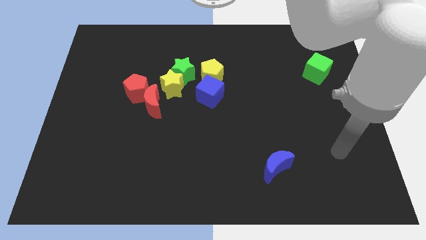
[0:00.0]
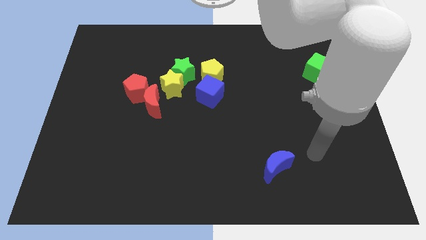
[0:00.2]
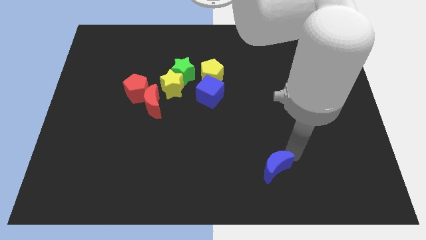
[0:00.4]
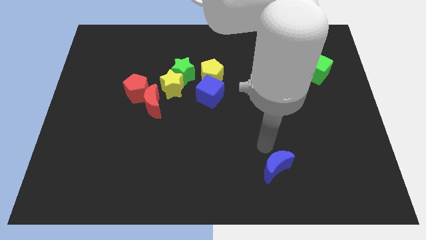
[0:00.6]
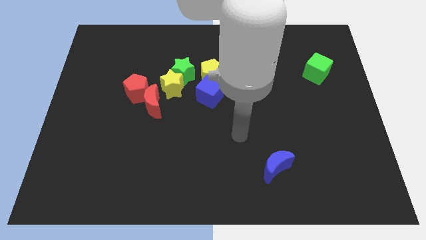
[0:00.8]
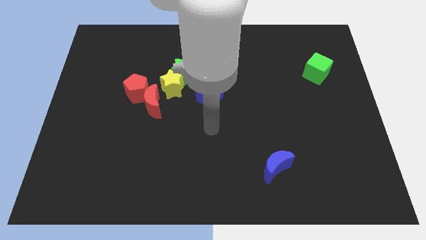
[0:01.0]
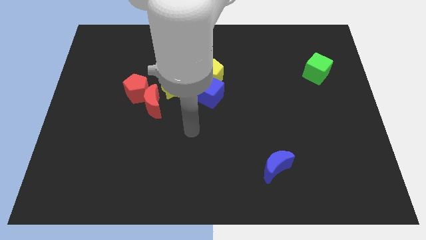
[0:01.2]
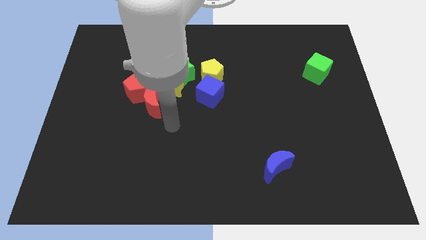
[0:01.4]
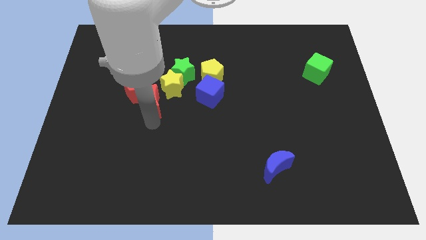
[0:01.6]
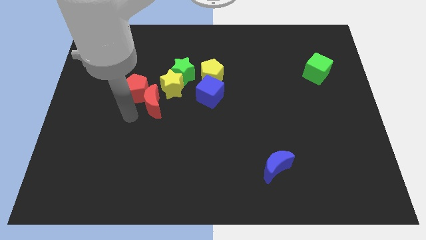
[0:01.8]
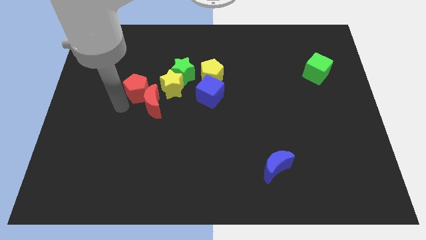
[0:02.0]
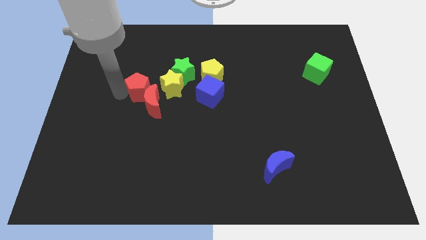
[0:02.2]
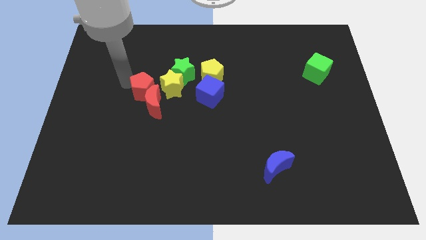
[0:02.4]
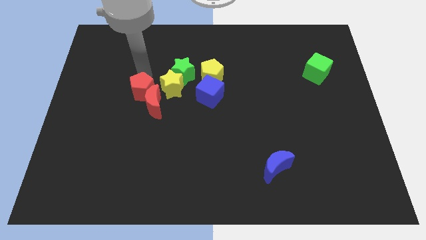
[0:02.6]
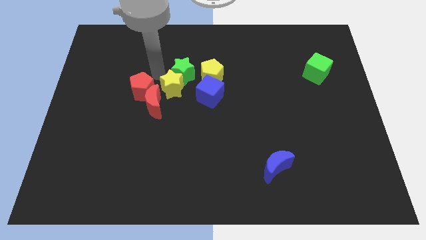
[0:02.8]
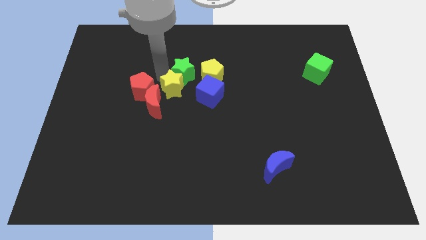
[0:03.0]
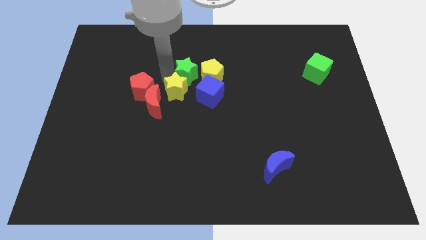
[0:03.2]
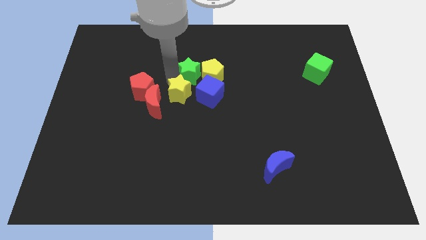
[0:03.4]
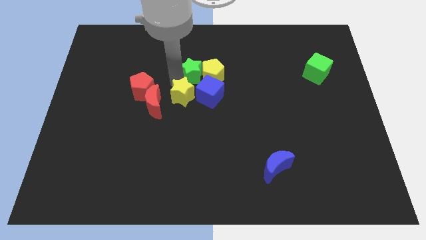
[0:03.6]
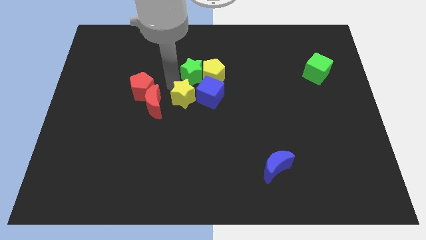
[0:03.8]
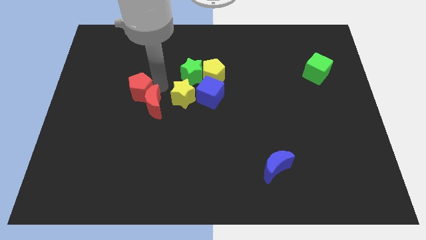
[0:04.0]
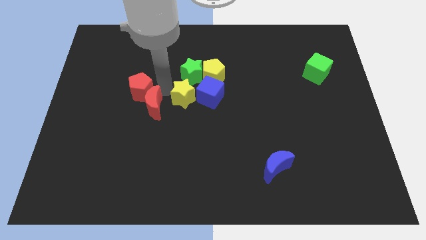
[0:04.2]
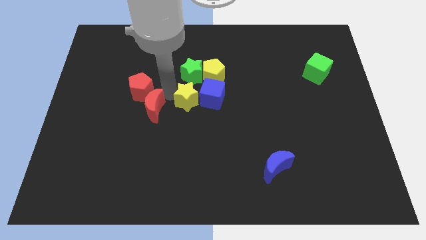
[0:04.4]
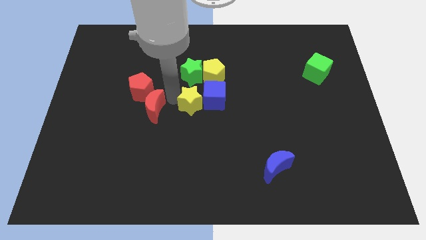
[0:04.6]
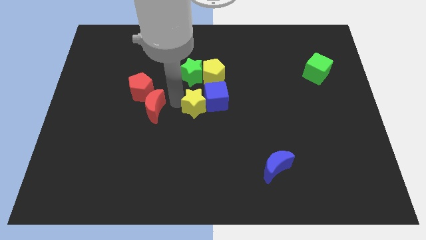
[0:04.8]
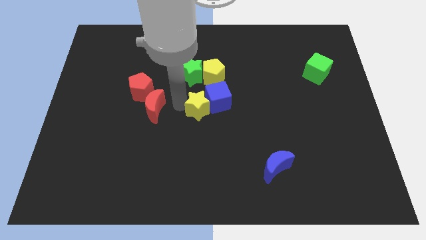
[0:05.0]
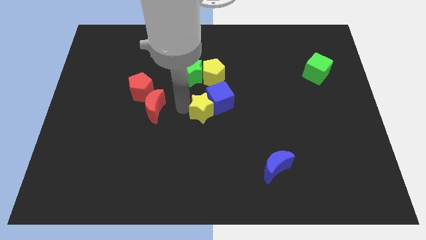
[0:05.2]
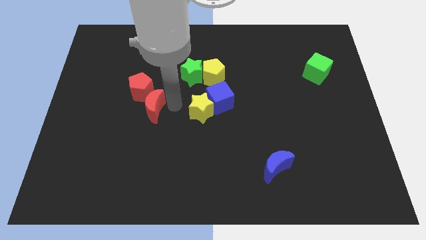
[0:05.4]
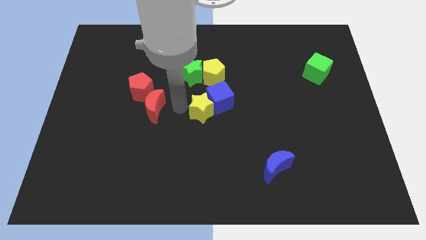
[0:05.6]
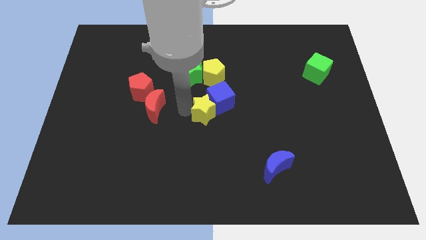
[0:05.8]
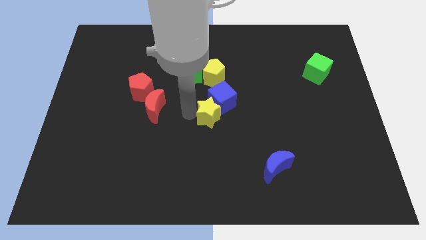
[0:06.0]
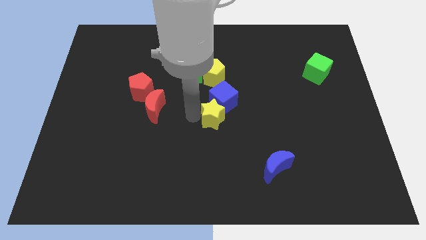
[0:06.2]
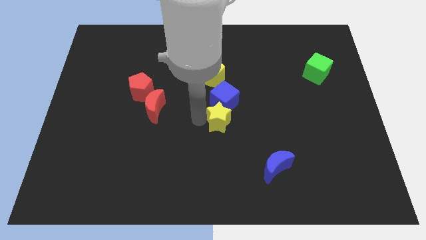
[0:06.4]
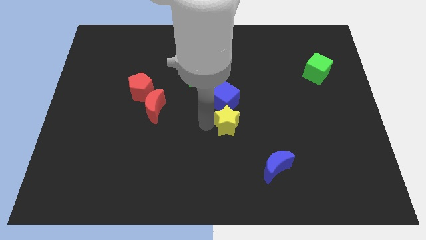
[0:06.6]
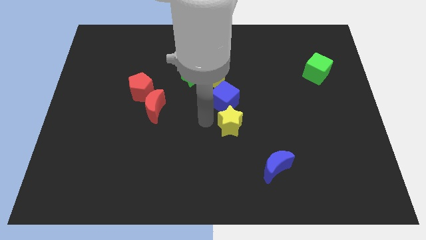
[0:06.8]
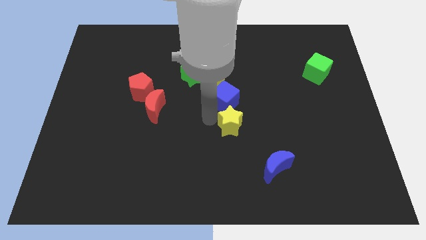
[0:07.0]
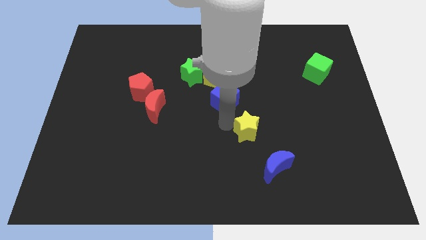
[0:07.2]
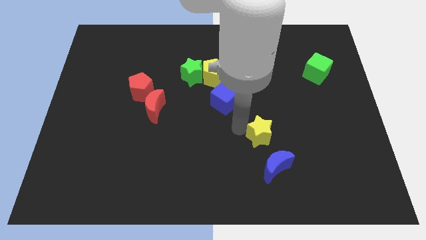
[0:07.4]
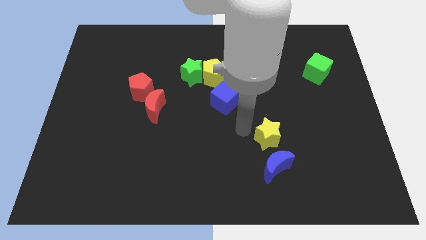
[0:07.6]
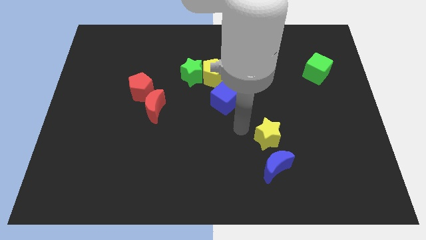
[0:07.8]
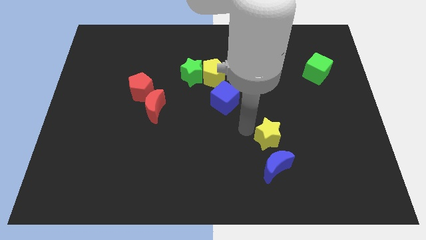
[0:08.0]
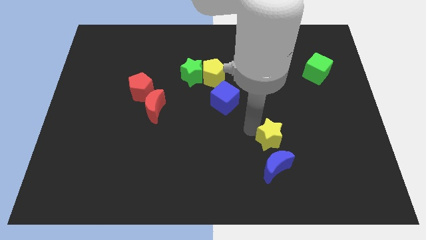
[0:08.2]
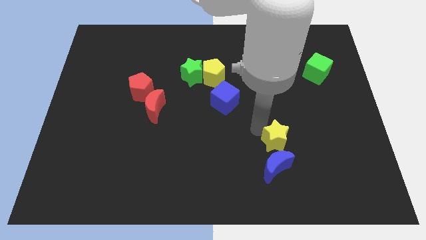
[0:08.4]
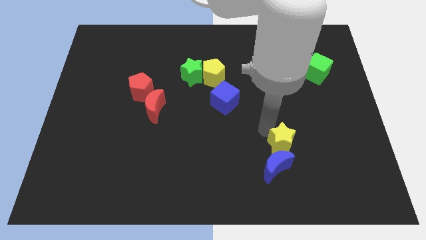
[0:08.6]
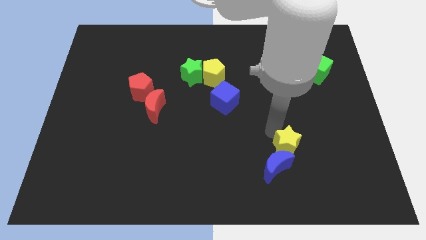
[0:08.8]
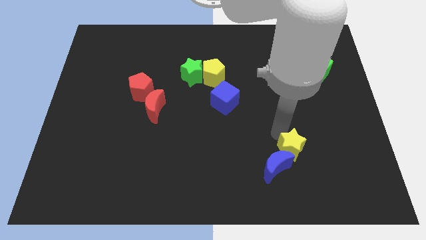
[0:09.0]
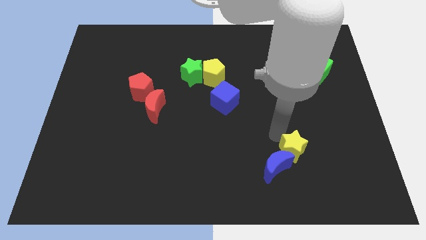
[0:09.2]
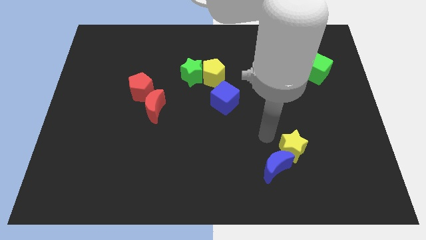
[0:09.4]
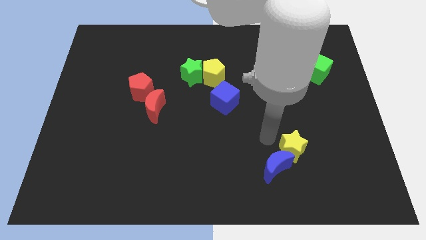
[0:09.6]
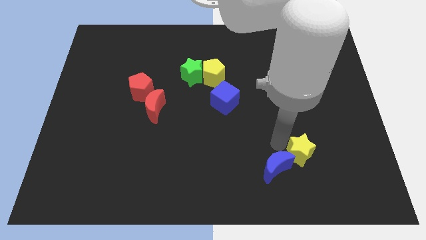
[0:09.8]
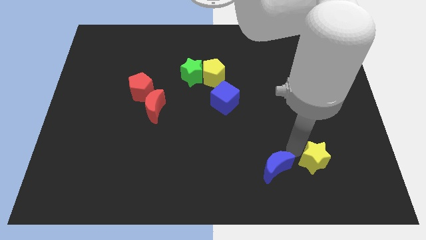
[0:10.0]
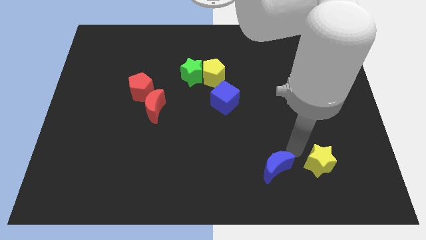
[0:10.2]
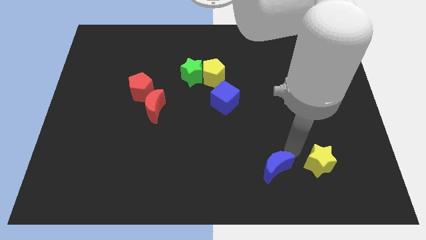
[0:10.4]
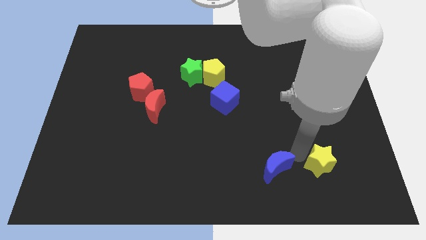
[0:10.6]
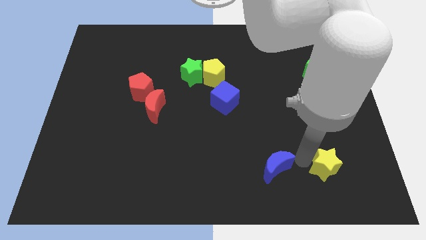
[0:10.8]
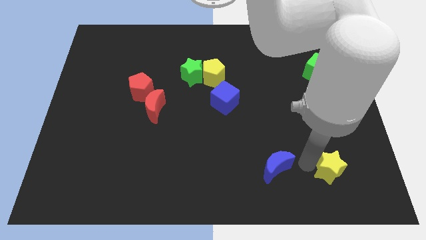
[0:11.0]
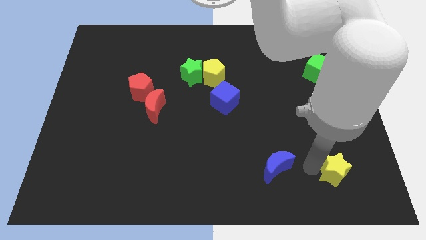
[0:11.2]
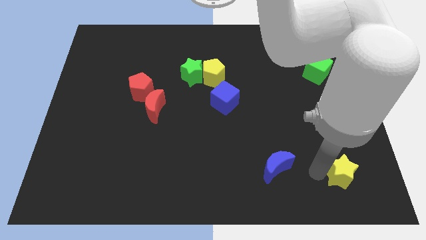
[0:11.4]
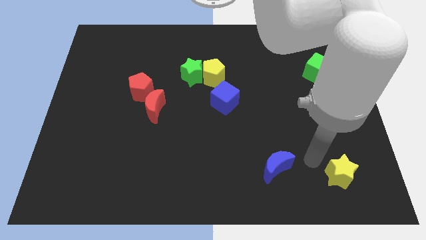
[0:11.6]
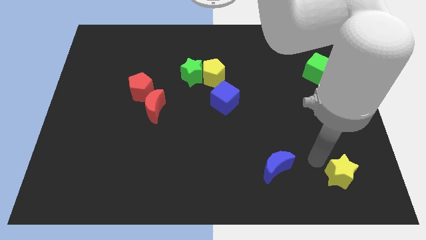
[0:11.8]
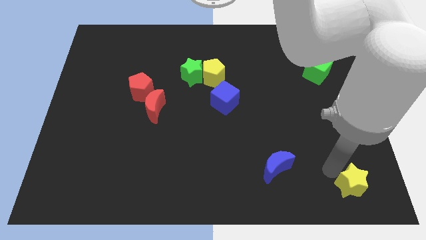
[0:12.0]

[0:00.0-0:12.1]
move the yellow star to the bottom right corner
